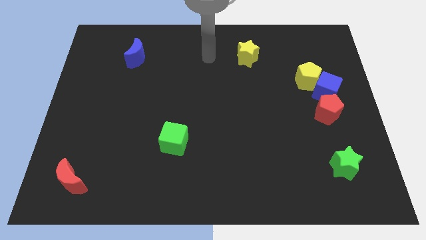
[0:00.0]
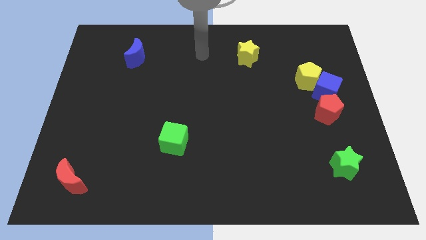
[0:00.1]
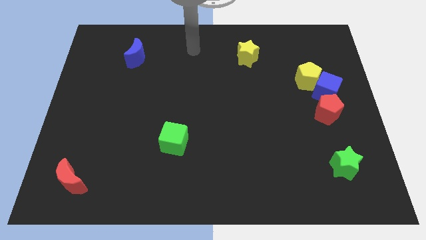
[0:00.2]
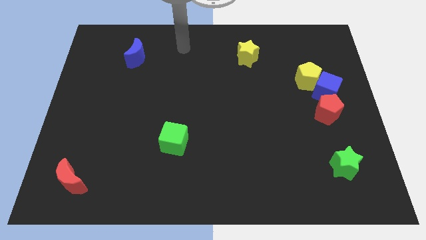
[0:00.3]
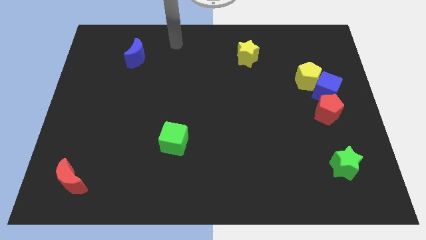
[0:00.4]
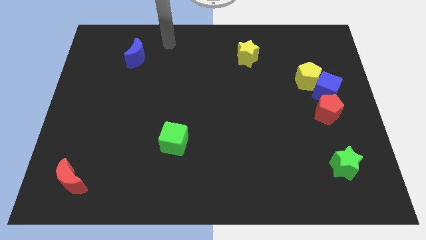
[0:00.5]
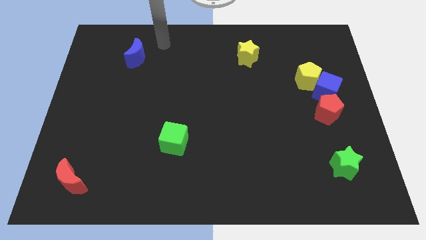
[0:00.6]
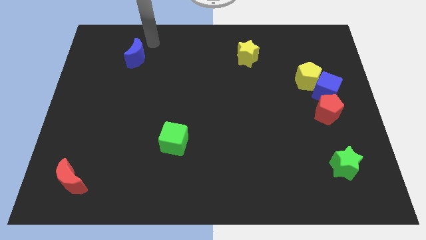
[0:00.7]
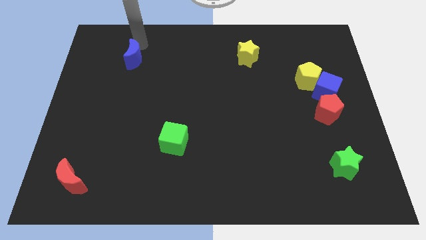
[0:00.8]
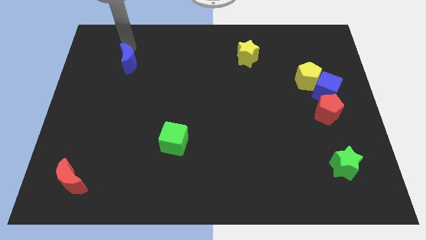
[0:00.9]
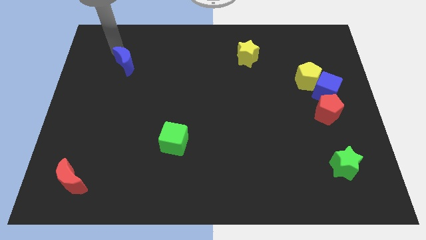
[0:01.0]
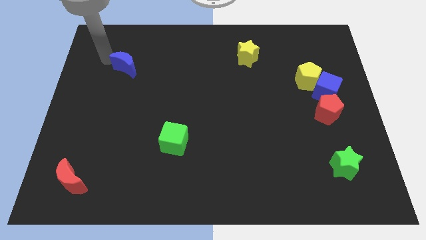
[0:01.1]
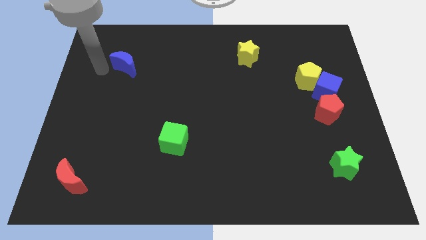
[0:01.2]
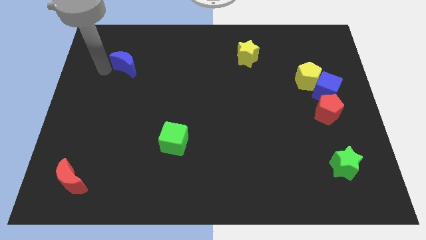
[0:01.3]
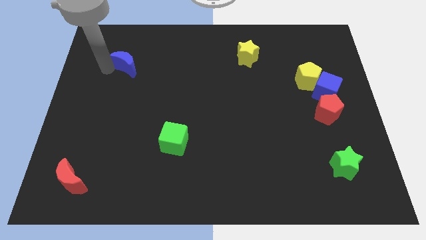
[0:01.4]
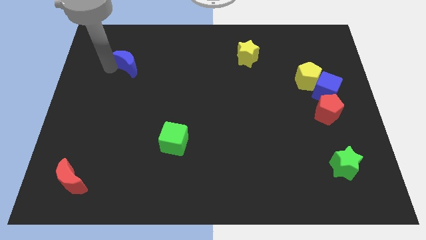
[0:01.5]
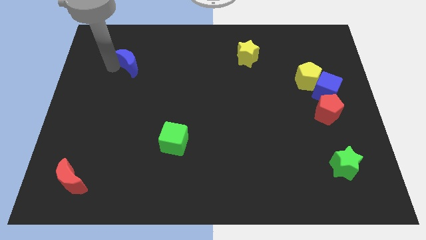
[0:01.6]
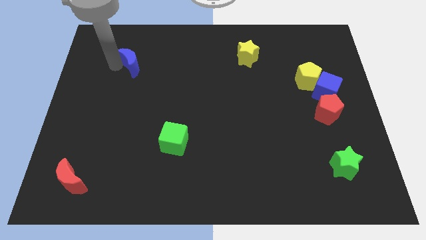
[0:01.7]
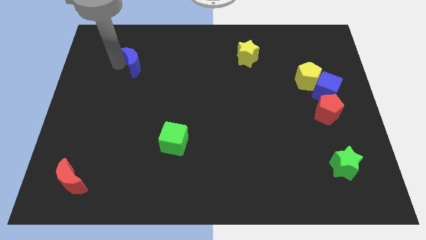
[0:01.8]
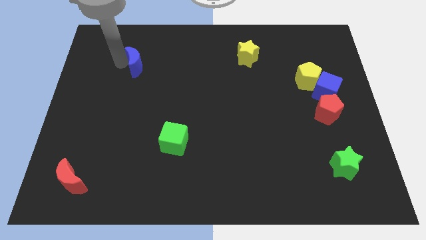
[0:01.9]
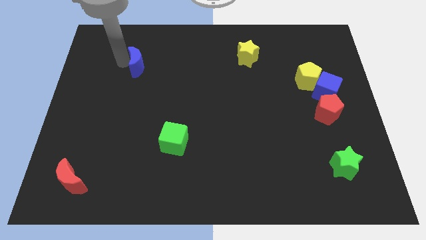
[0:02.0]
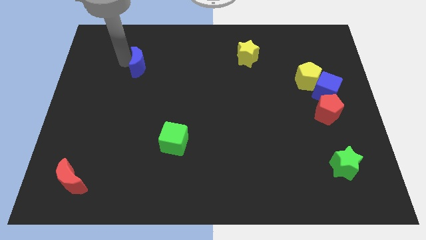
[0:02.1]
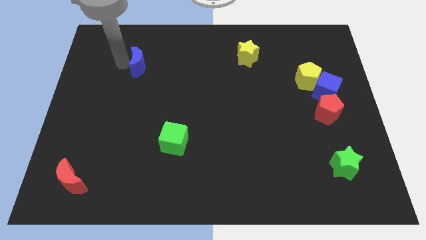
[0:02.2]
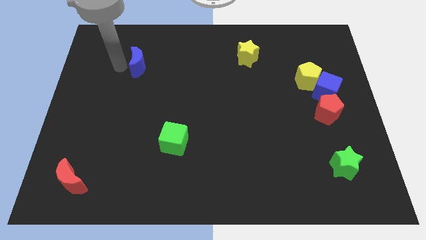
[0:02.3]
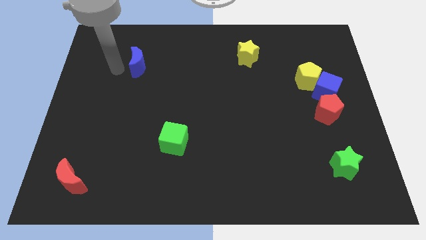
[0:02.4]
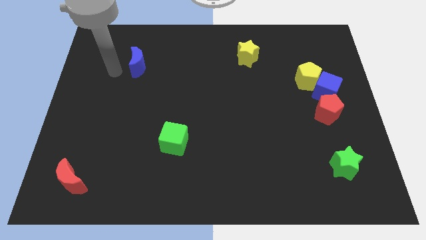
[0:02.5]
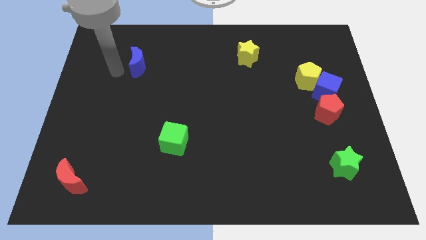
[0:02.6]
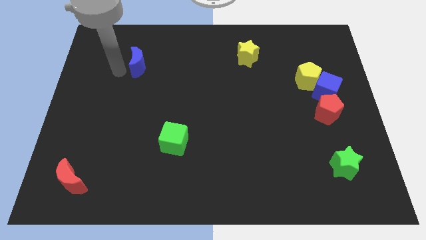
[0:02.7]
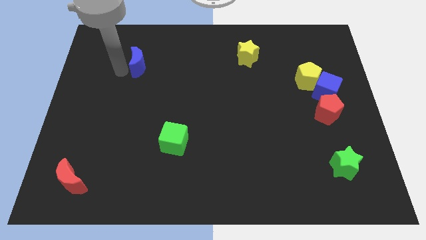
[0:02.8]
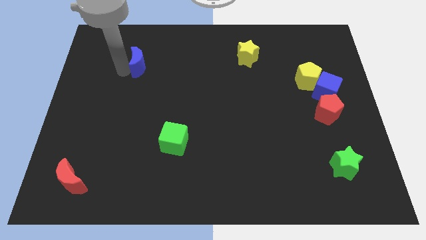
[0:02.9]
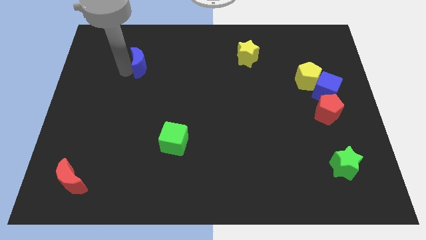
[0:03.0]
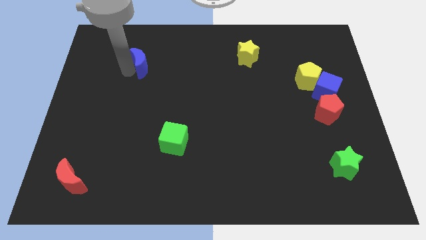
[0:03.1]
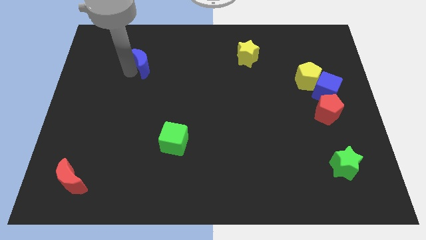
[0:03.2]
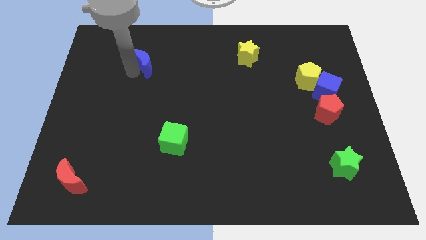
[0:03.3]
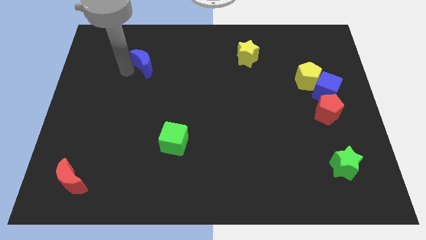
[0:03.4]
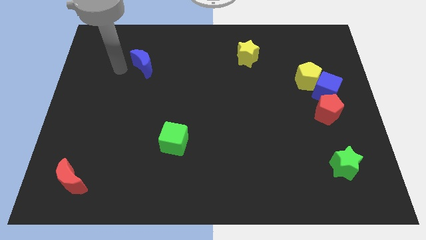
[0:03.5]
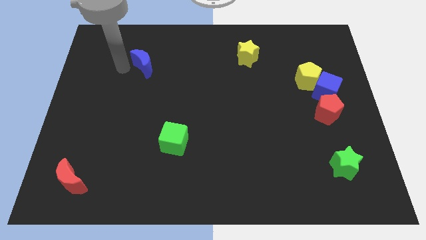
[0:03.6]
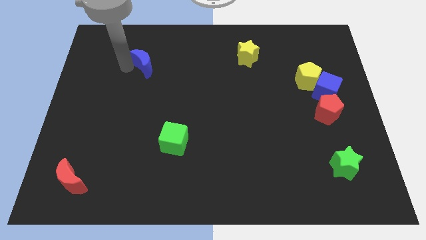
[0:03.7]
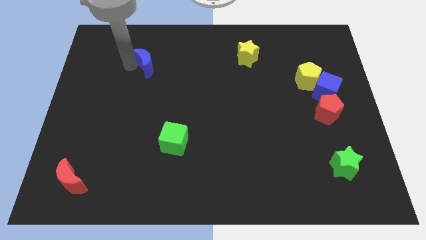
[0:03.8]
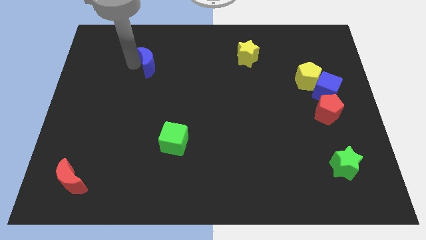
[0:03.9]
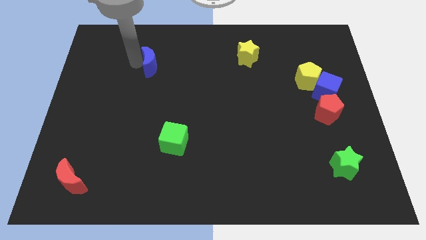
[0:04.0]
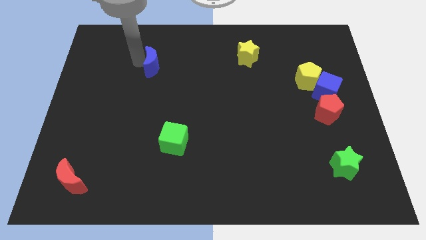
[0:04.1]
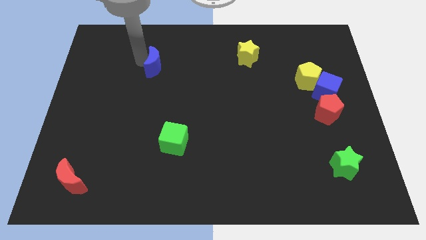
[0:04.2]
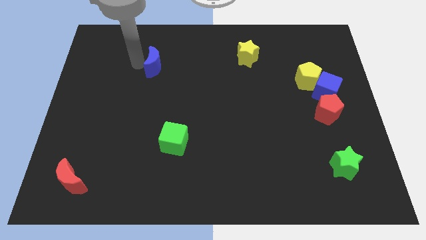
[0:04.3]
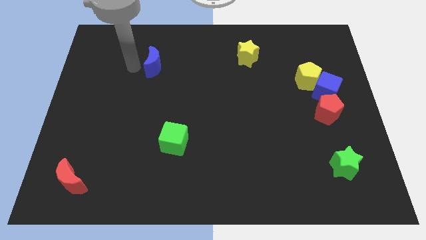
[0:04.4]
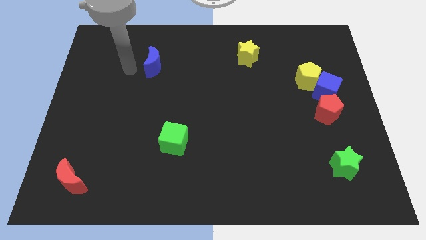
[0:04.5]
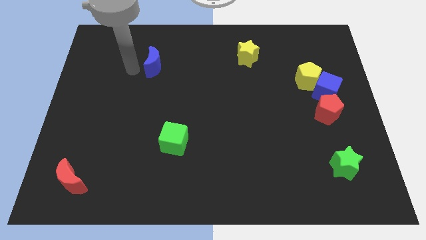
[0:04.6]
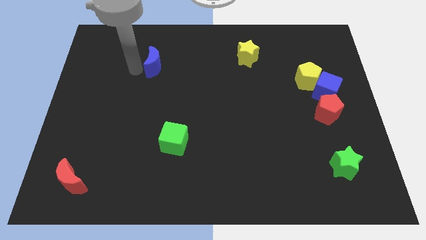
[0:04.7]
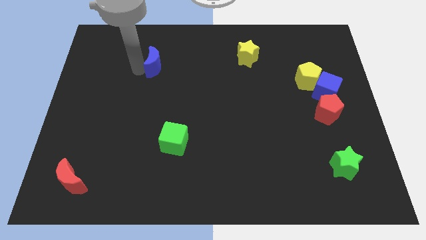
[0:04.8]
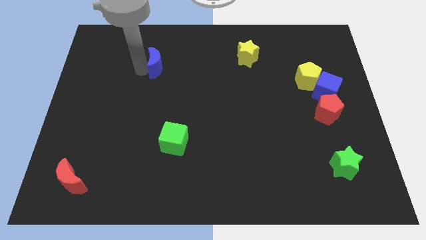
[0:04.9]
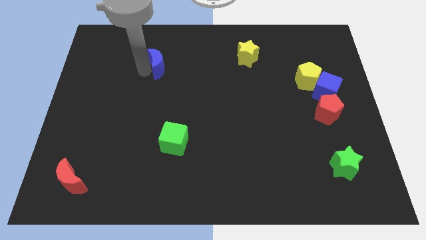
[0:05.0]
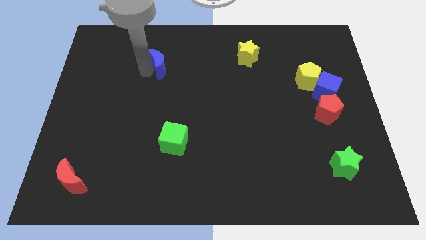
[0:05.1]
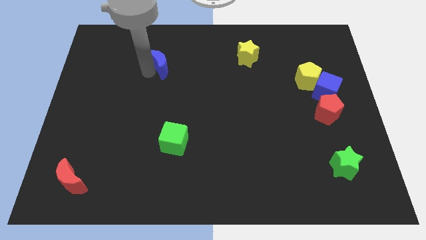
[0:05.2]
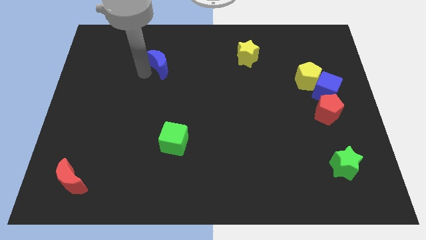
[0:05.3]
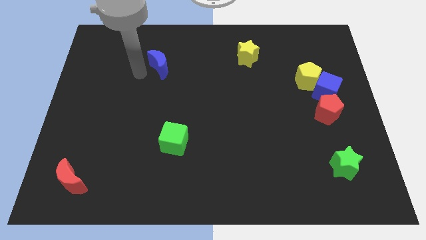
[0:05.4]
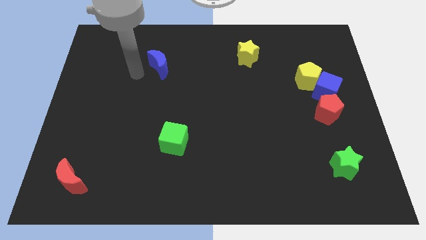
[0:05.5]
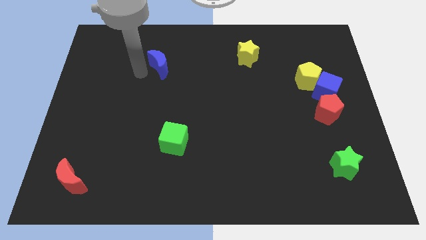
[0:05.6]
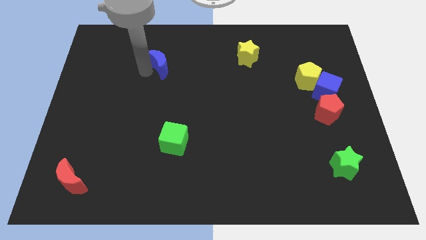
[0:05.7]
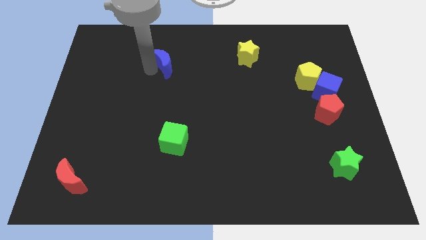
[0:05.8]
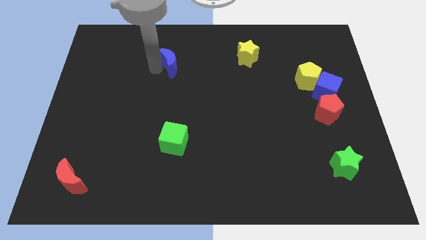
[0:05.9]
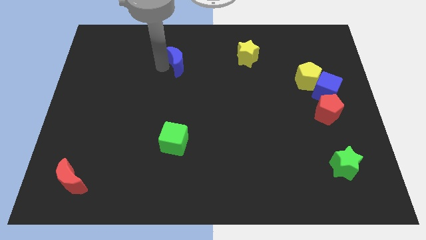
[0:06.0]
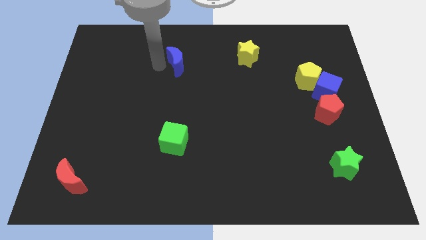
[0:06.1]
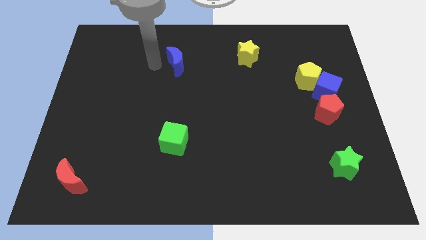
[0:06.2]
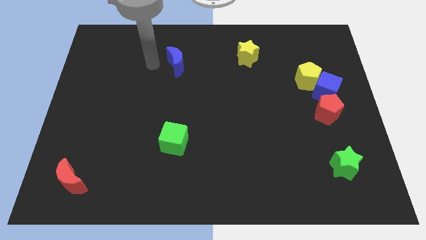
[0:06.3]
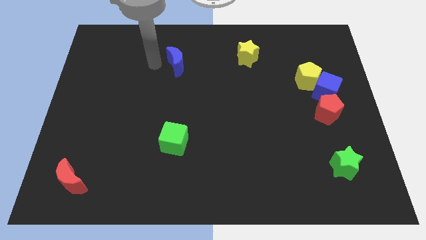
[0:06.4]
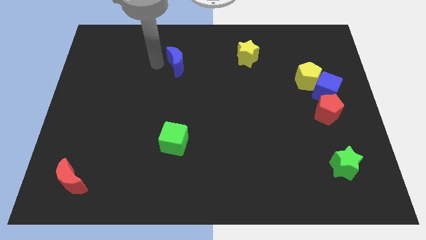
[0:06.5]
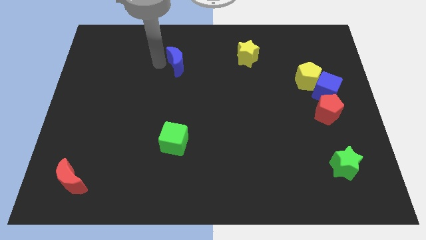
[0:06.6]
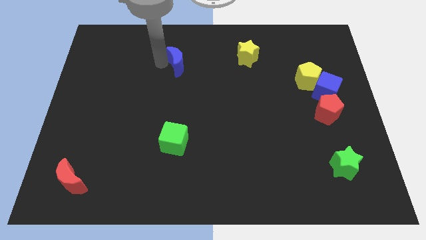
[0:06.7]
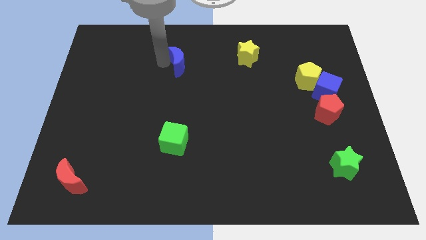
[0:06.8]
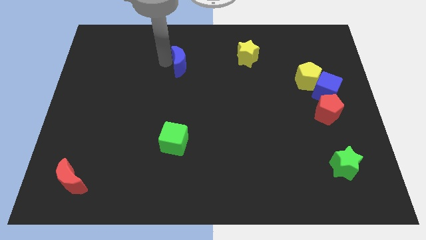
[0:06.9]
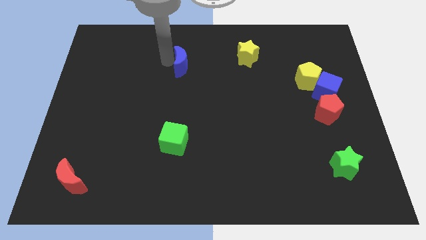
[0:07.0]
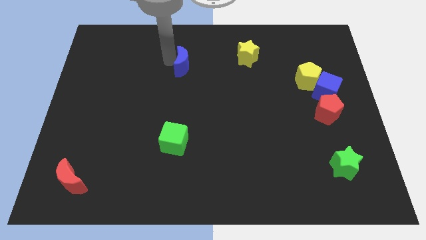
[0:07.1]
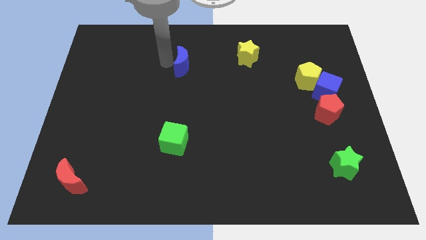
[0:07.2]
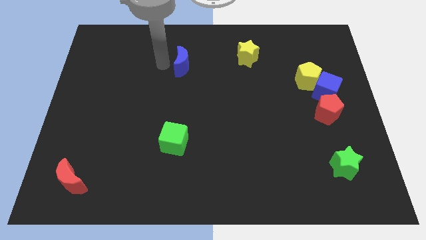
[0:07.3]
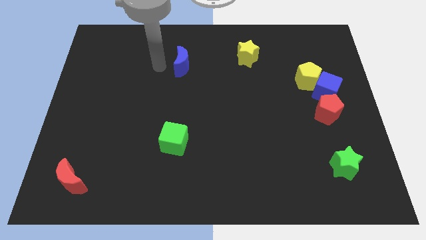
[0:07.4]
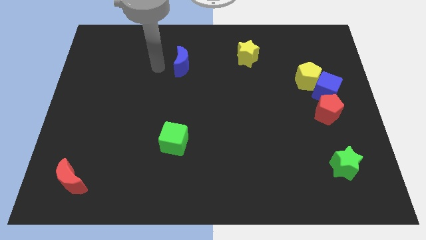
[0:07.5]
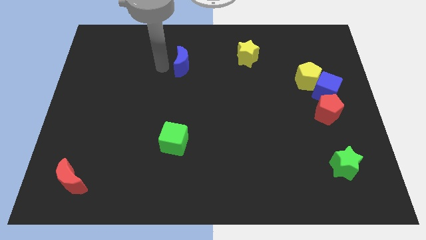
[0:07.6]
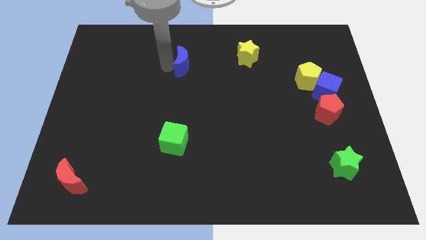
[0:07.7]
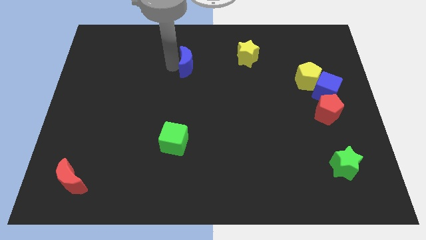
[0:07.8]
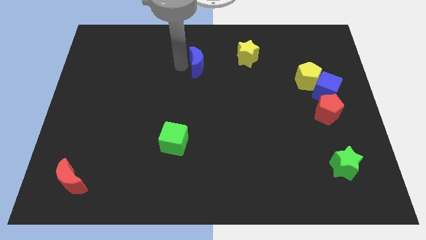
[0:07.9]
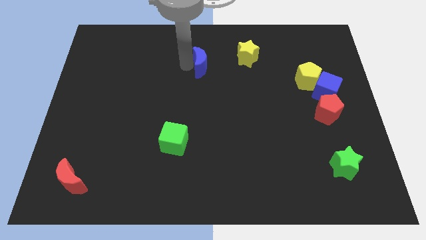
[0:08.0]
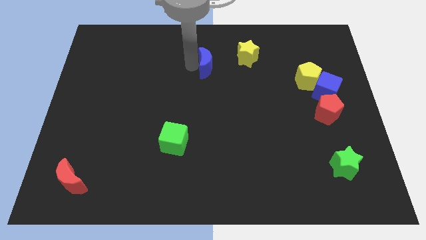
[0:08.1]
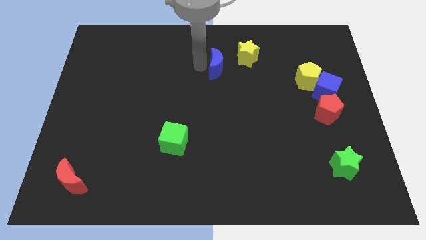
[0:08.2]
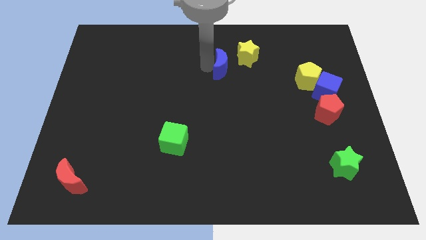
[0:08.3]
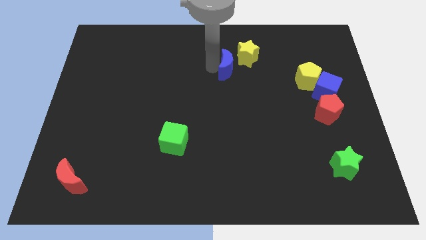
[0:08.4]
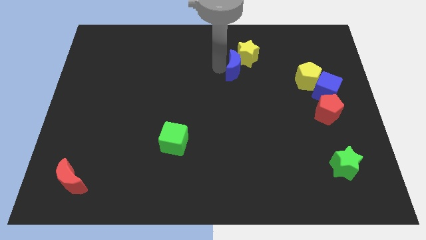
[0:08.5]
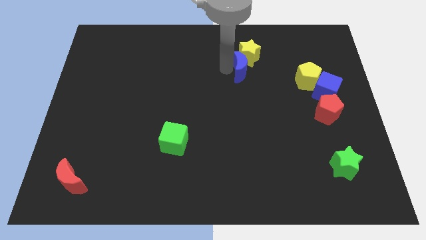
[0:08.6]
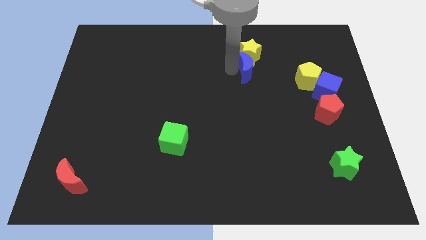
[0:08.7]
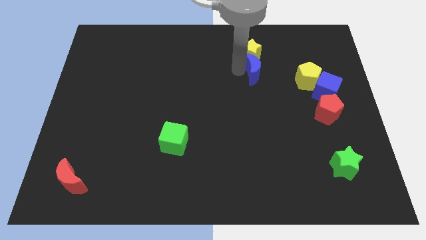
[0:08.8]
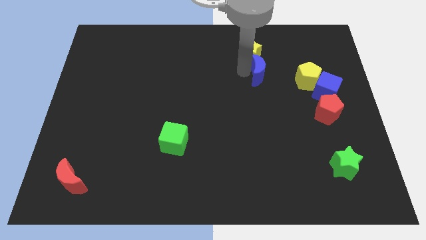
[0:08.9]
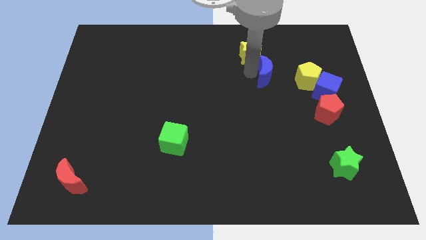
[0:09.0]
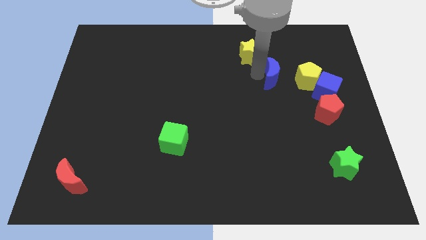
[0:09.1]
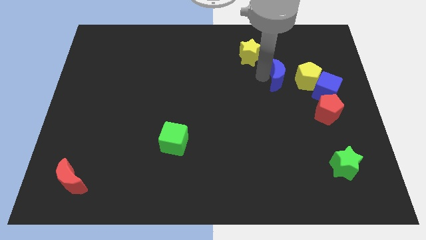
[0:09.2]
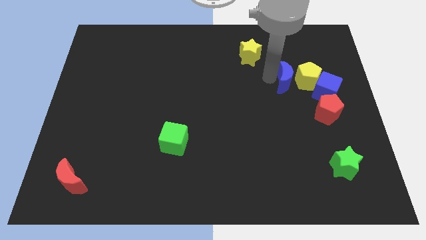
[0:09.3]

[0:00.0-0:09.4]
push the blue moon next to the yellow pentagon
